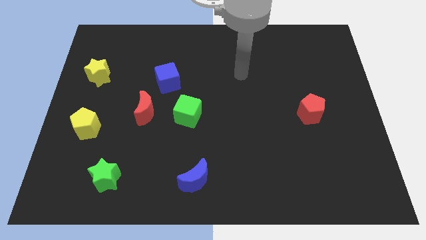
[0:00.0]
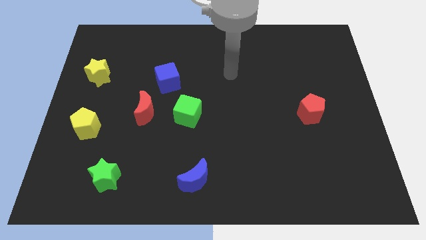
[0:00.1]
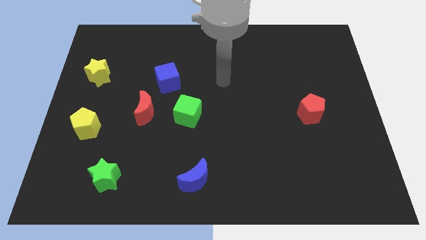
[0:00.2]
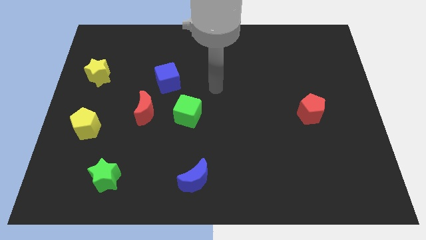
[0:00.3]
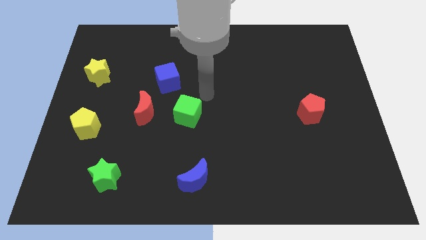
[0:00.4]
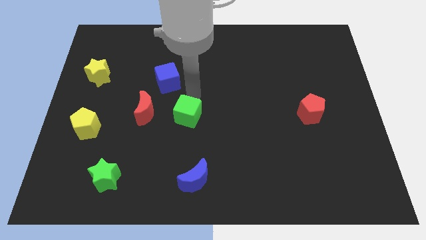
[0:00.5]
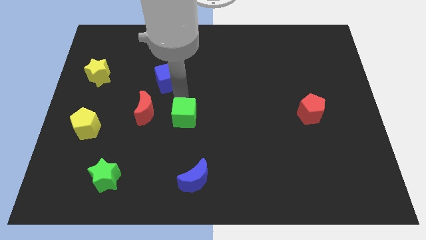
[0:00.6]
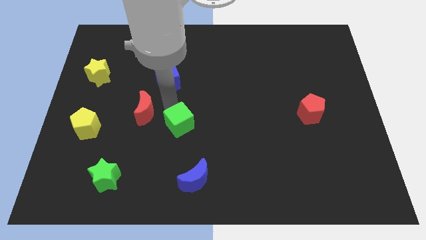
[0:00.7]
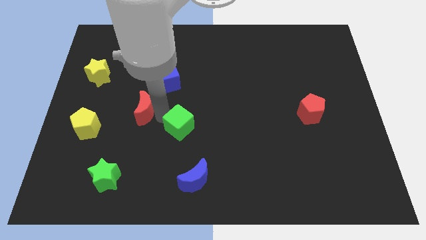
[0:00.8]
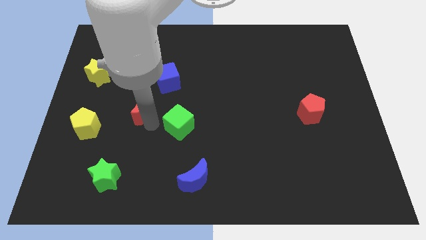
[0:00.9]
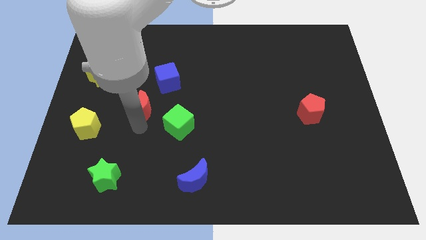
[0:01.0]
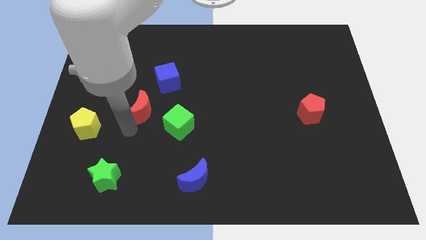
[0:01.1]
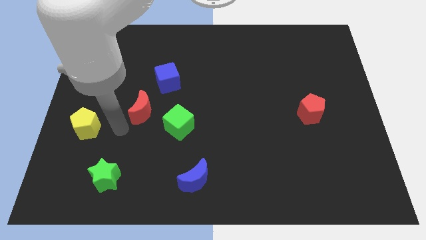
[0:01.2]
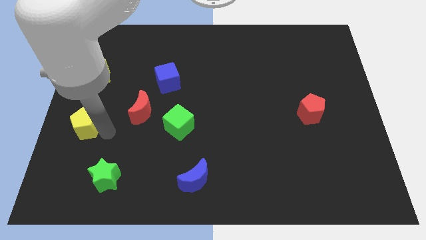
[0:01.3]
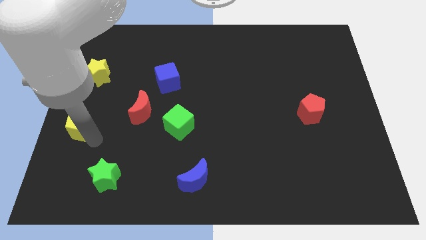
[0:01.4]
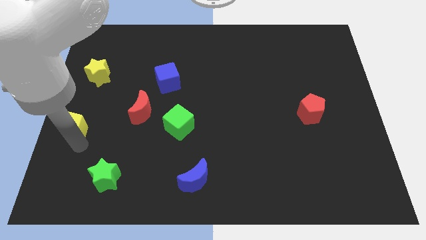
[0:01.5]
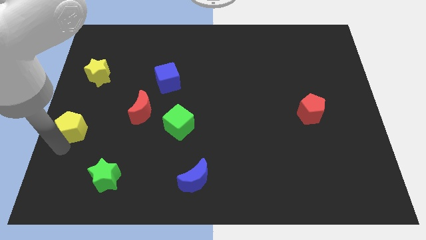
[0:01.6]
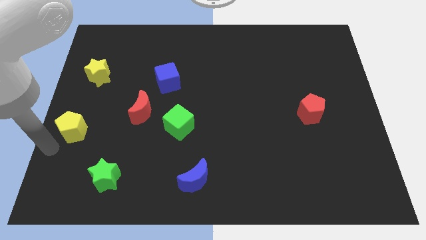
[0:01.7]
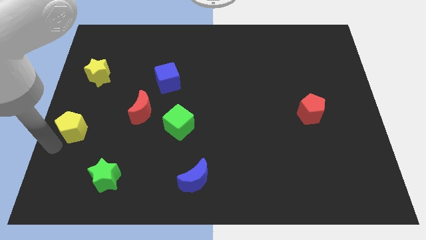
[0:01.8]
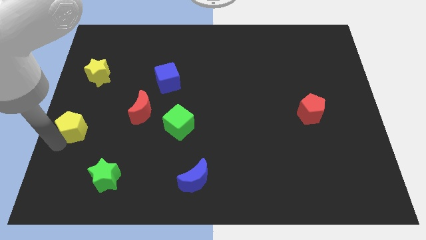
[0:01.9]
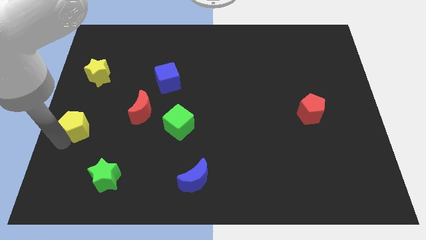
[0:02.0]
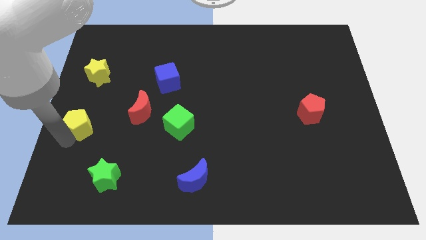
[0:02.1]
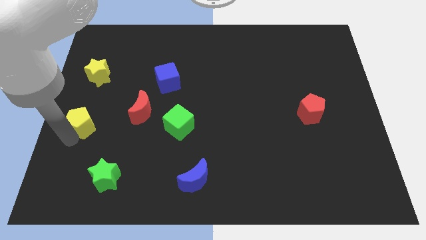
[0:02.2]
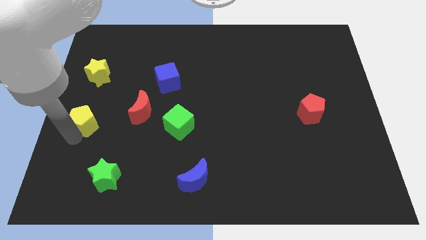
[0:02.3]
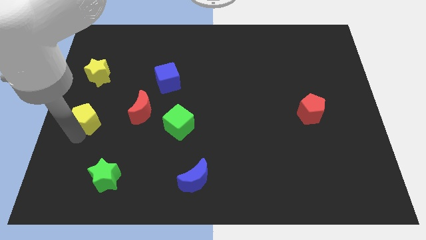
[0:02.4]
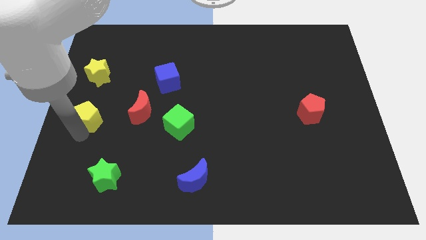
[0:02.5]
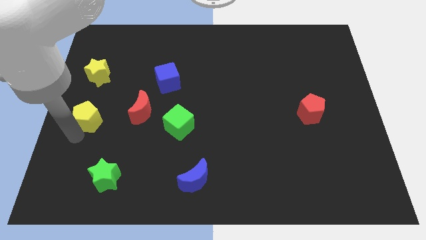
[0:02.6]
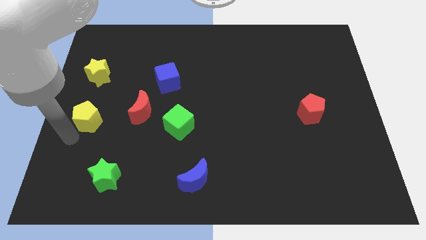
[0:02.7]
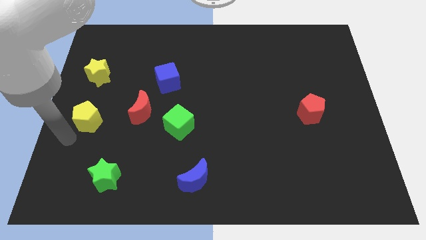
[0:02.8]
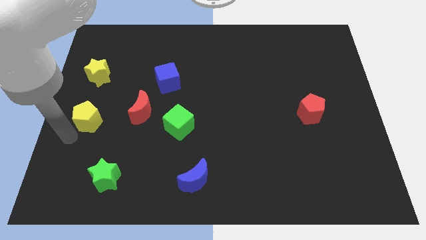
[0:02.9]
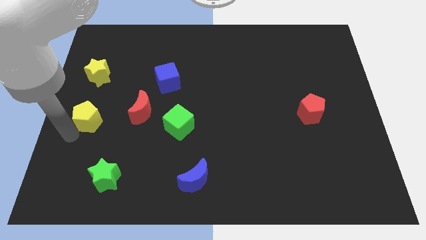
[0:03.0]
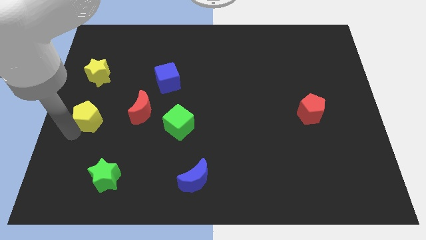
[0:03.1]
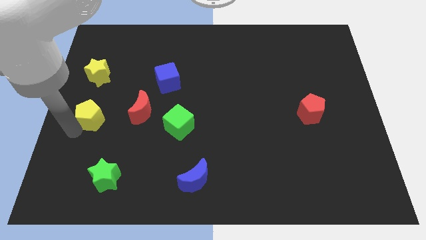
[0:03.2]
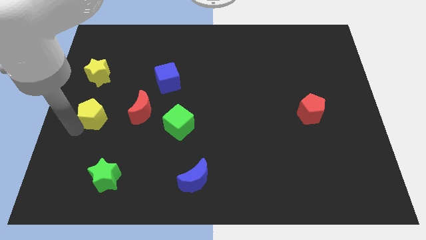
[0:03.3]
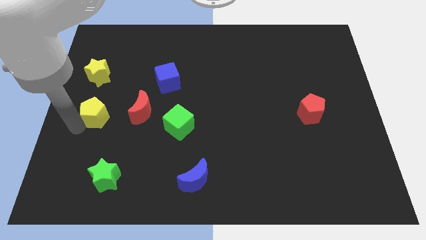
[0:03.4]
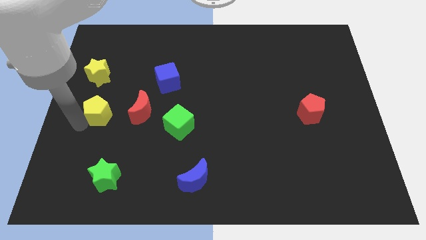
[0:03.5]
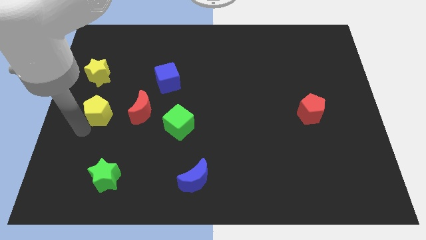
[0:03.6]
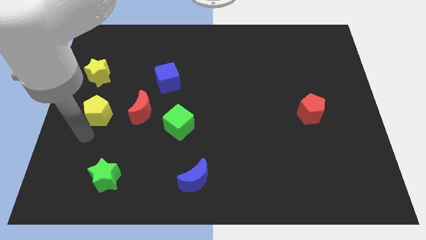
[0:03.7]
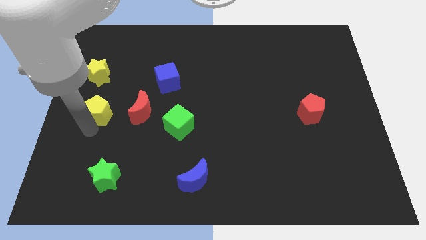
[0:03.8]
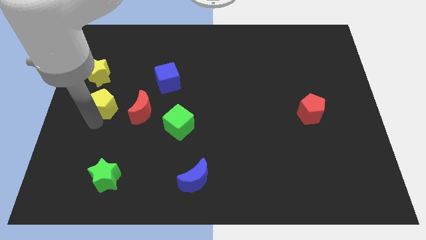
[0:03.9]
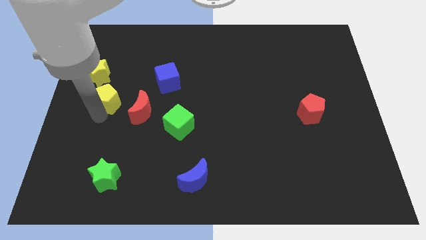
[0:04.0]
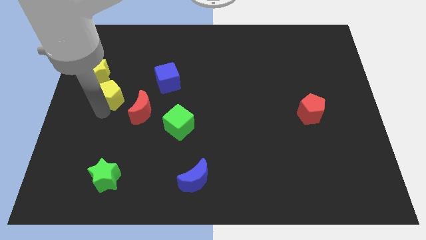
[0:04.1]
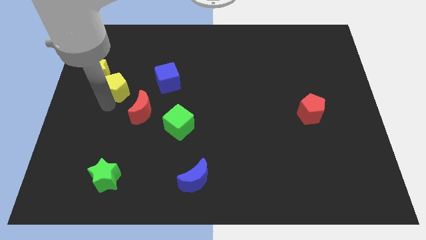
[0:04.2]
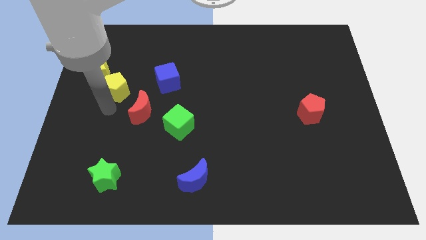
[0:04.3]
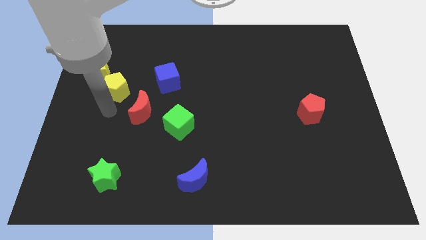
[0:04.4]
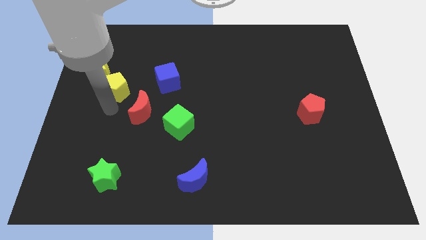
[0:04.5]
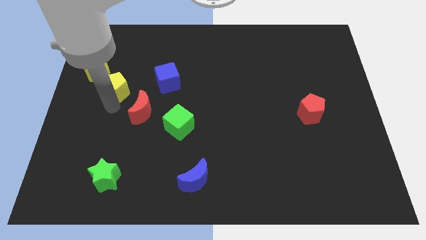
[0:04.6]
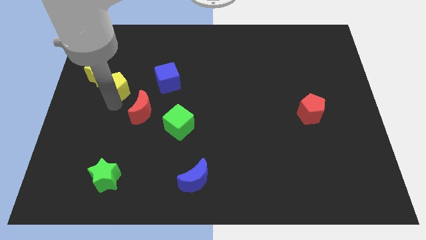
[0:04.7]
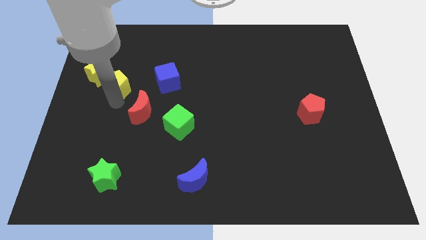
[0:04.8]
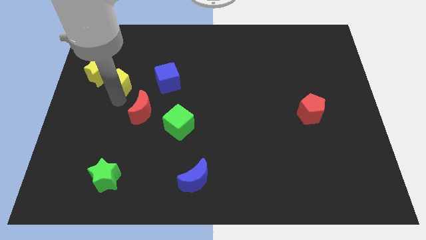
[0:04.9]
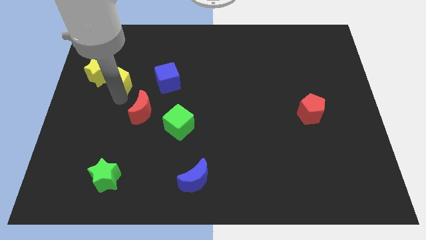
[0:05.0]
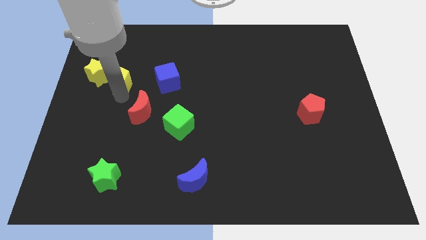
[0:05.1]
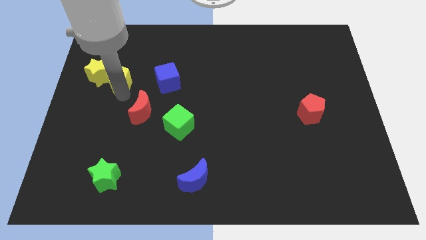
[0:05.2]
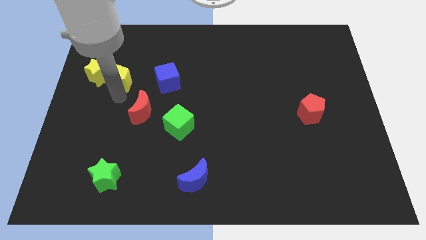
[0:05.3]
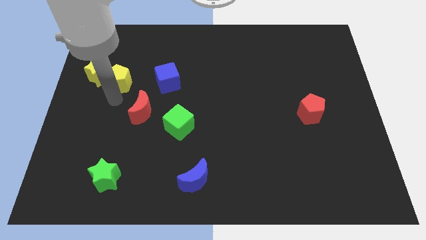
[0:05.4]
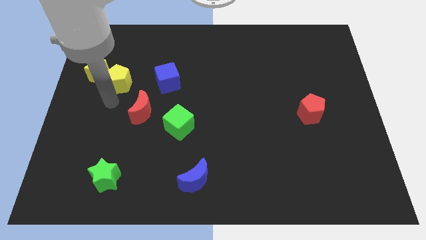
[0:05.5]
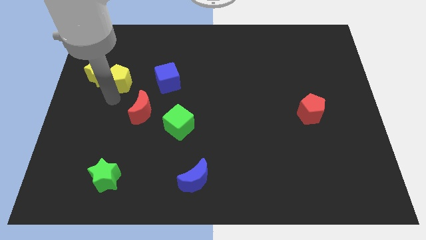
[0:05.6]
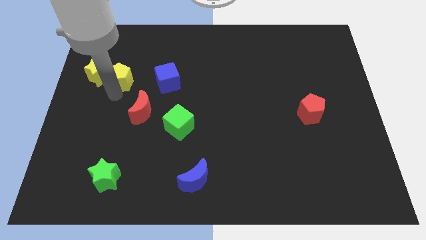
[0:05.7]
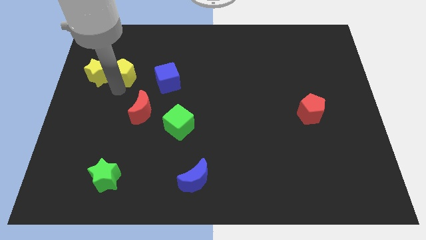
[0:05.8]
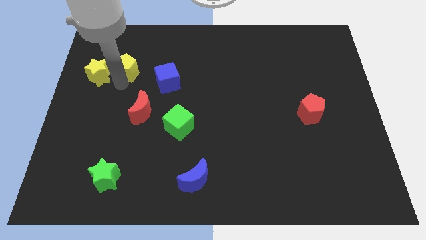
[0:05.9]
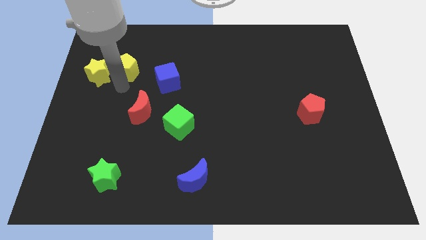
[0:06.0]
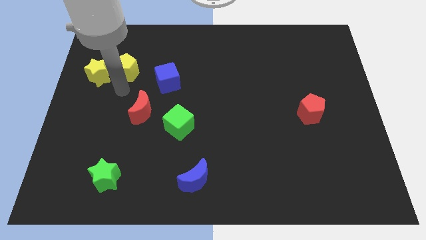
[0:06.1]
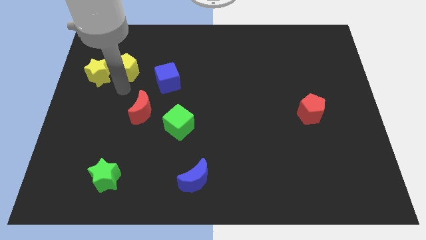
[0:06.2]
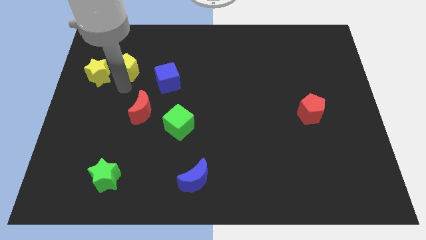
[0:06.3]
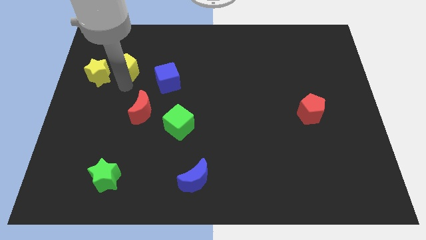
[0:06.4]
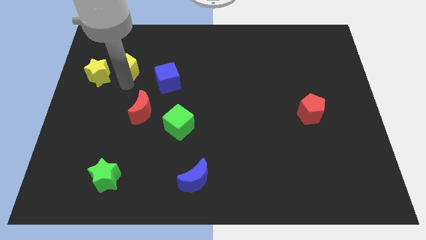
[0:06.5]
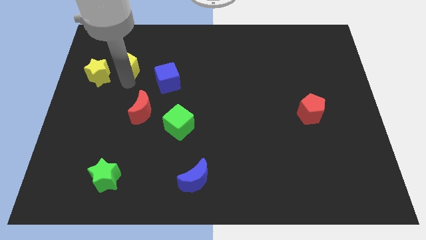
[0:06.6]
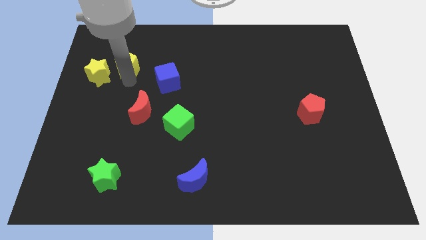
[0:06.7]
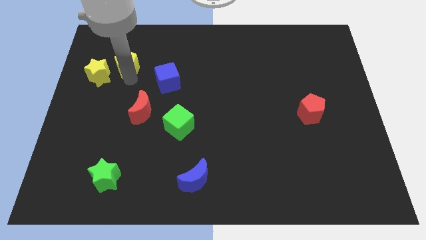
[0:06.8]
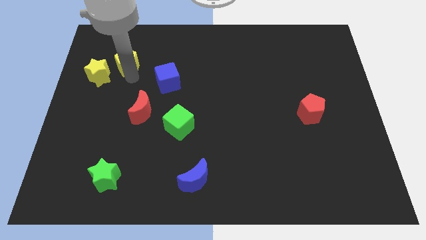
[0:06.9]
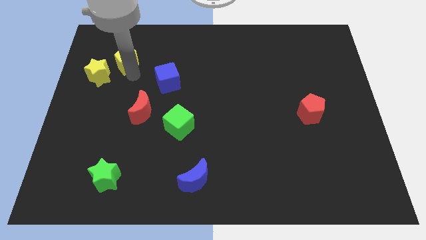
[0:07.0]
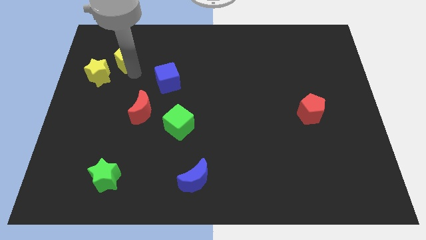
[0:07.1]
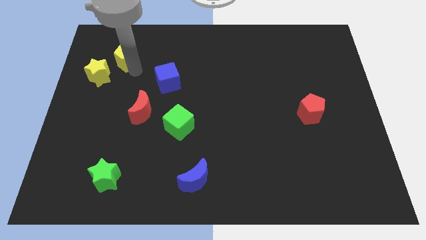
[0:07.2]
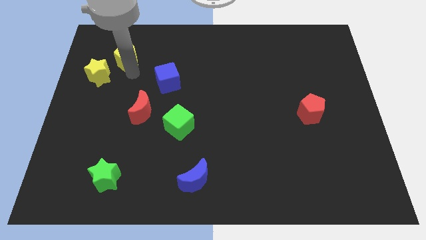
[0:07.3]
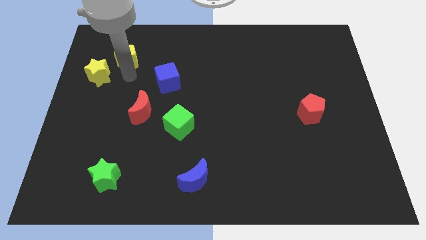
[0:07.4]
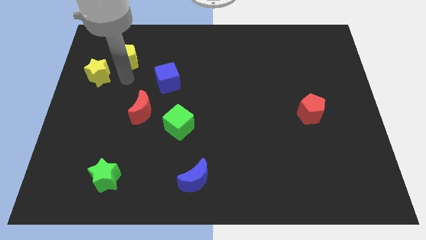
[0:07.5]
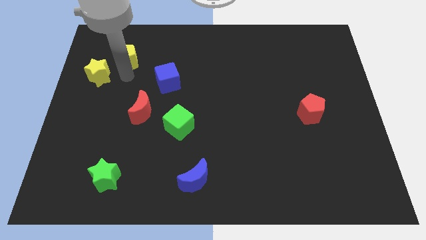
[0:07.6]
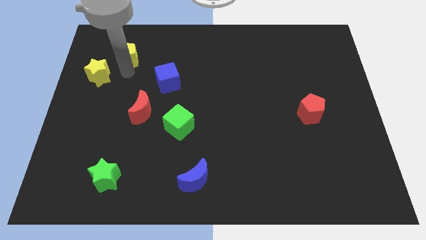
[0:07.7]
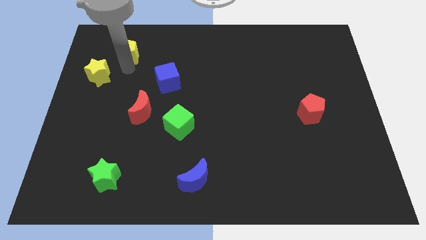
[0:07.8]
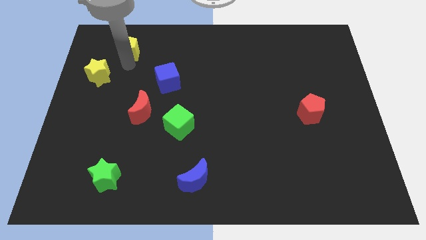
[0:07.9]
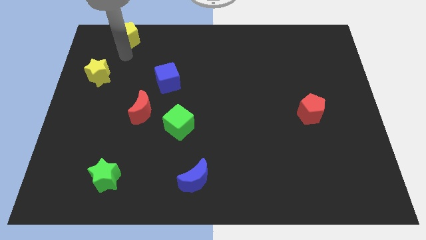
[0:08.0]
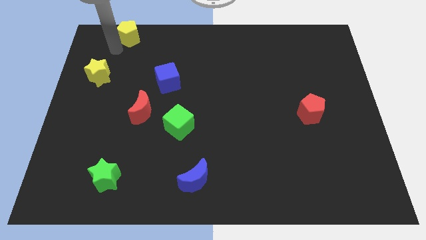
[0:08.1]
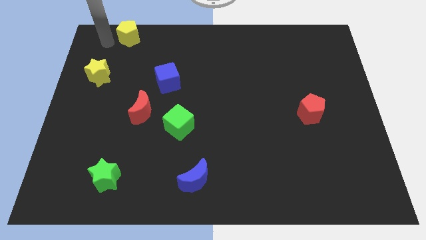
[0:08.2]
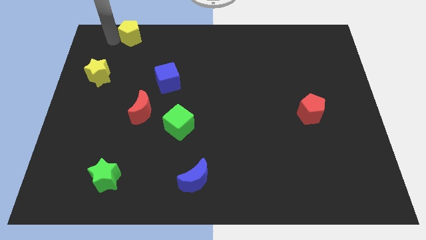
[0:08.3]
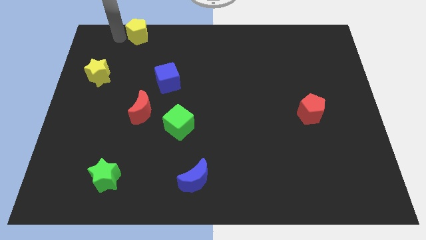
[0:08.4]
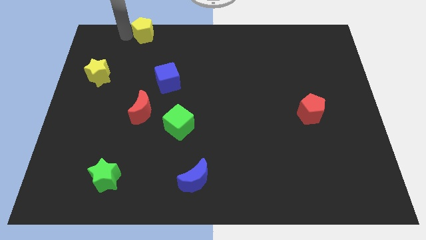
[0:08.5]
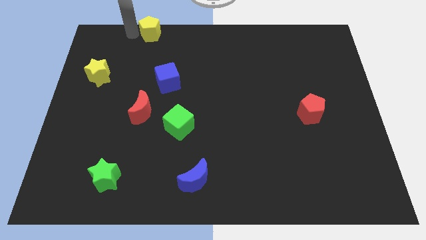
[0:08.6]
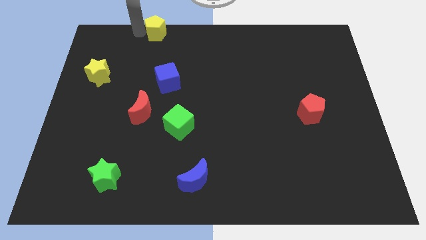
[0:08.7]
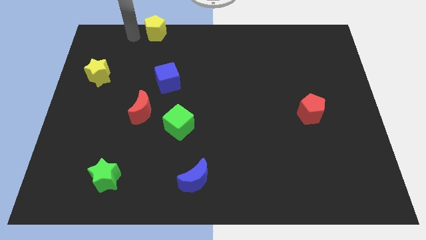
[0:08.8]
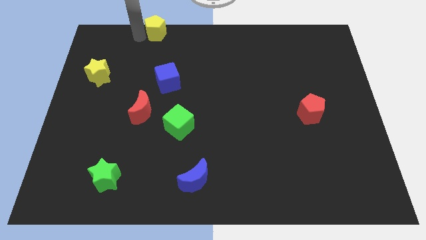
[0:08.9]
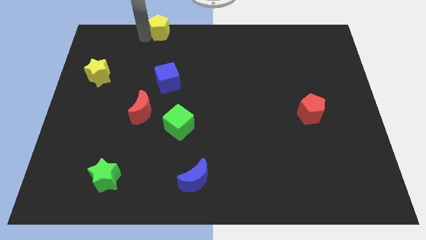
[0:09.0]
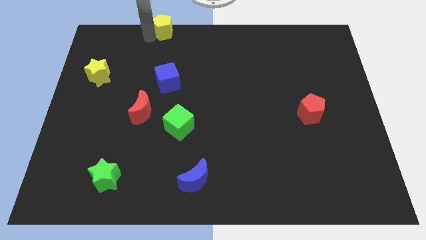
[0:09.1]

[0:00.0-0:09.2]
put the yellow pentagon to the top side
